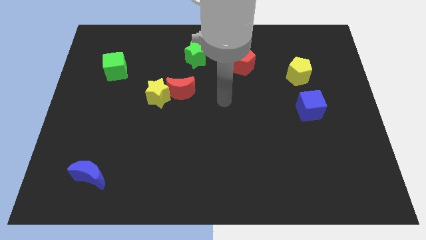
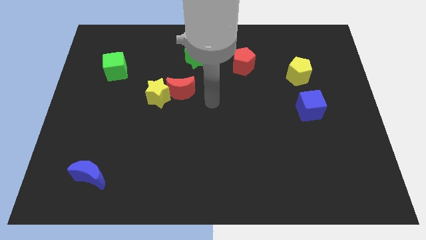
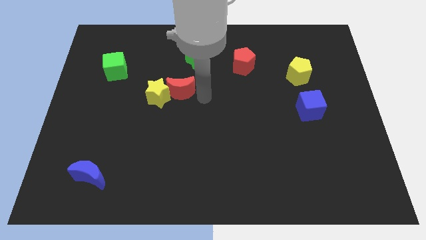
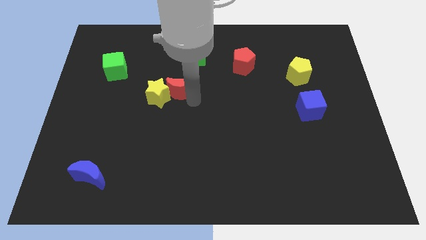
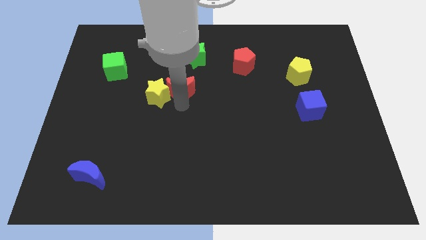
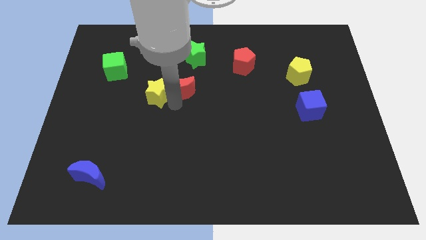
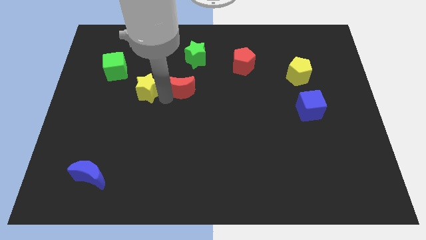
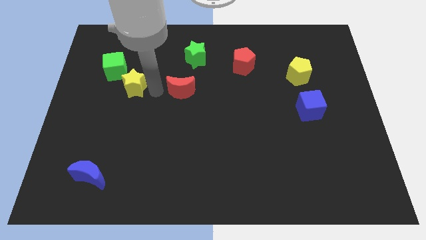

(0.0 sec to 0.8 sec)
move the red moon away from the yellow star

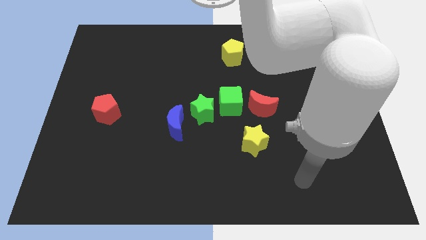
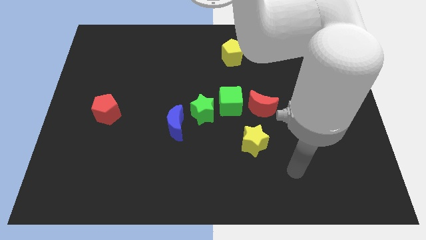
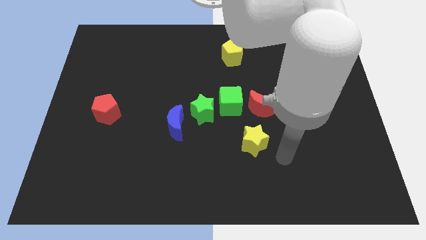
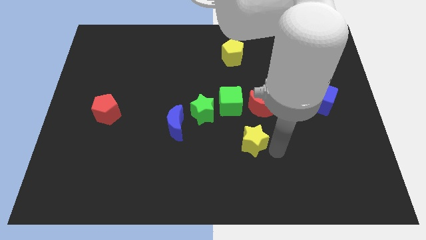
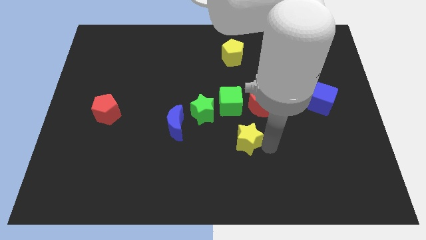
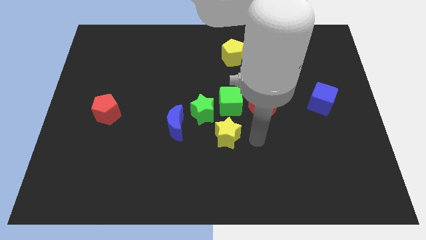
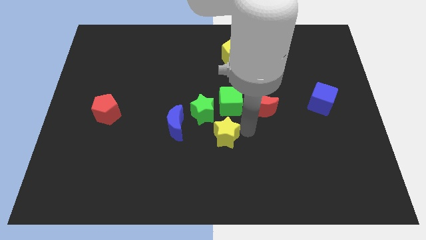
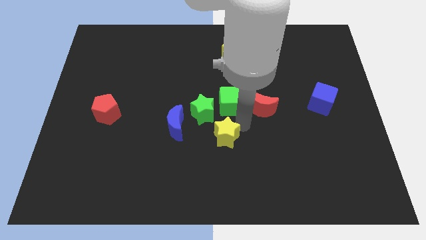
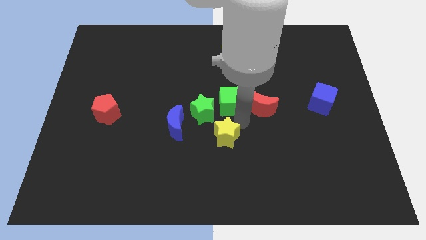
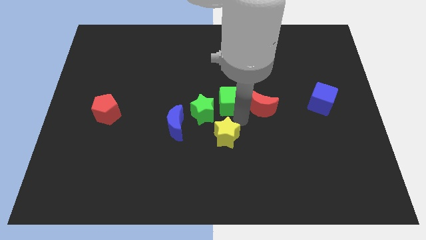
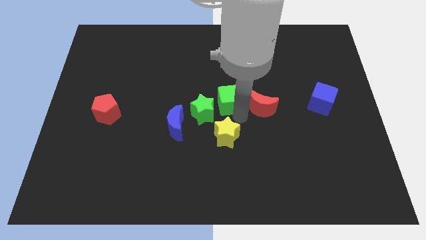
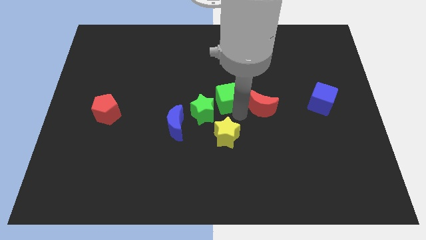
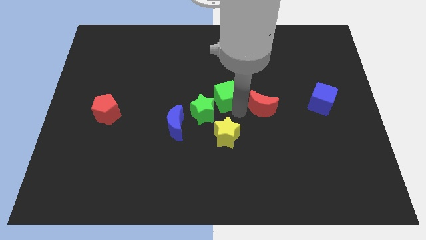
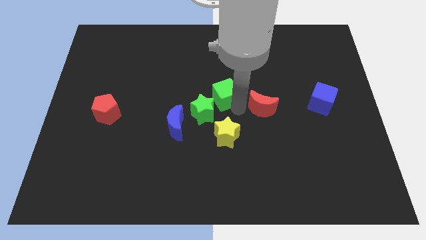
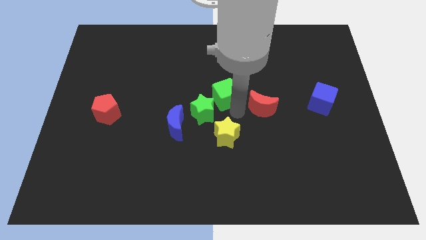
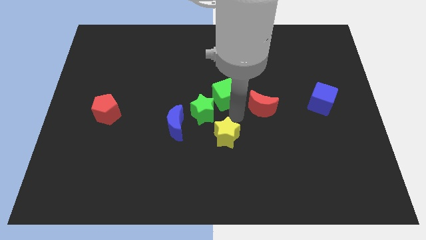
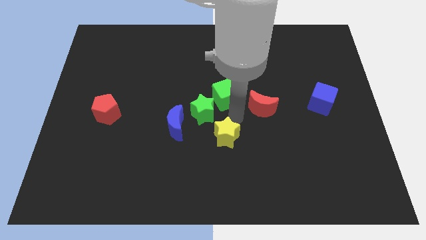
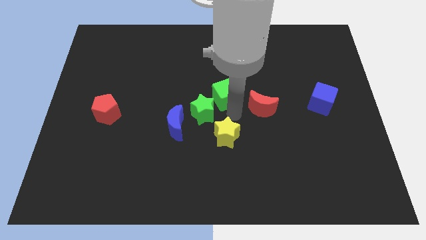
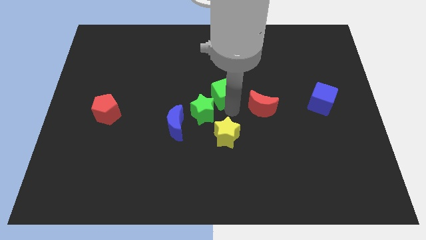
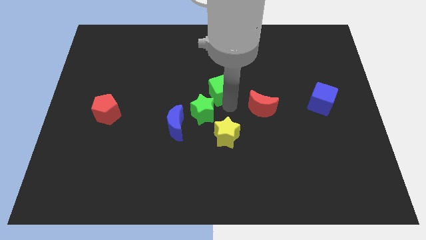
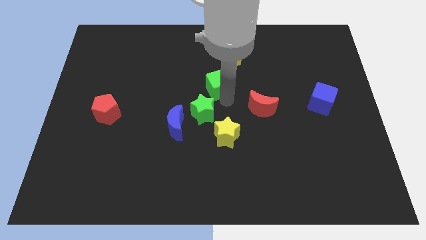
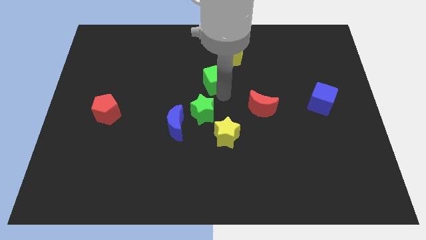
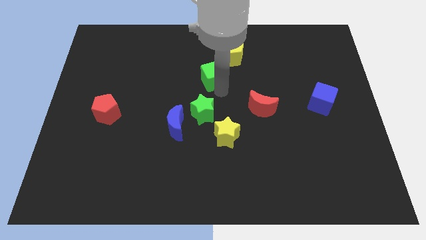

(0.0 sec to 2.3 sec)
separate the green cube from the green star and red moon

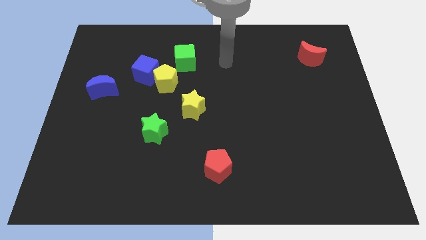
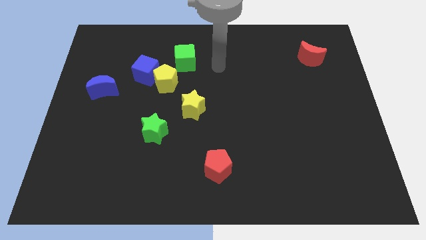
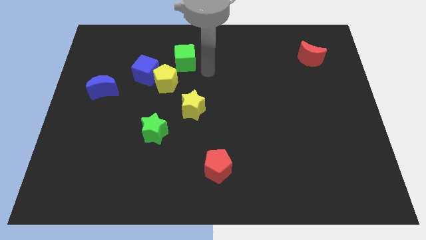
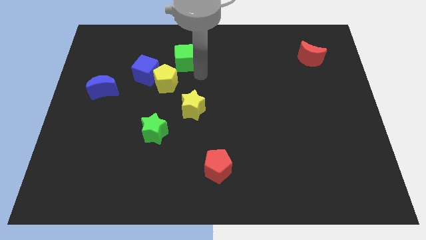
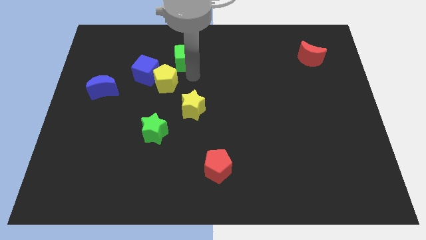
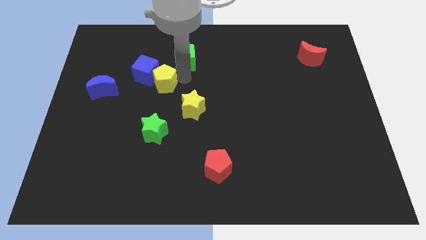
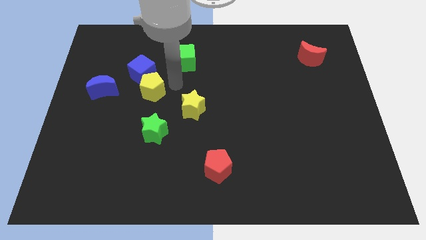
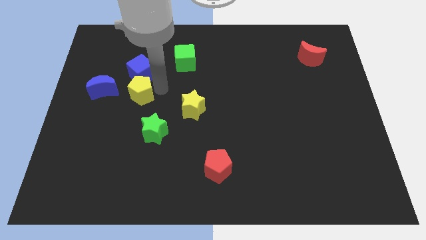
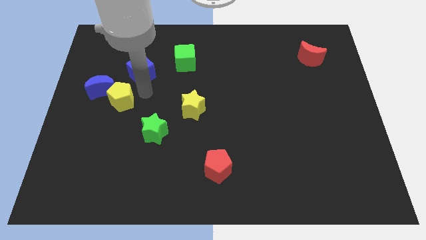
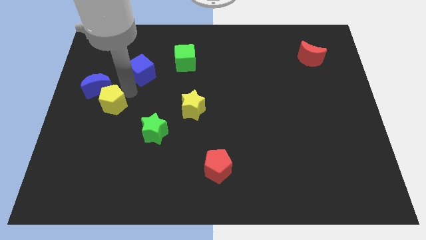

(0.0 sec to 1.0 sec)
move the blue cube away from the yellow pentagon

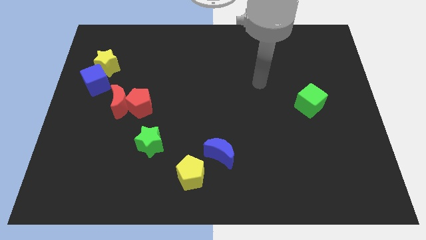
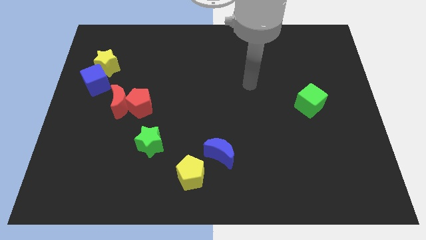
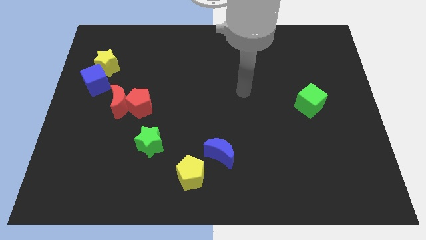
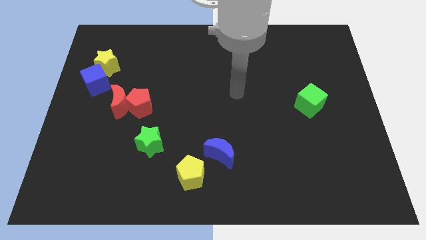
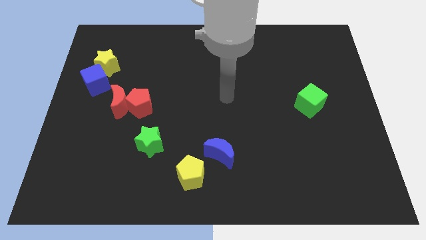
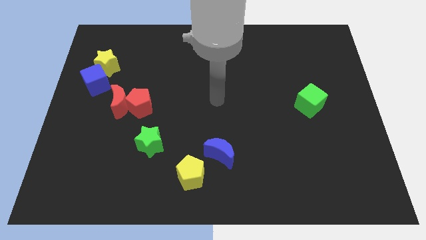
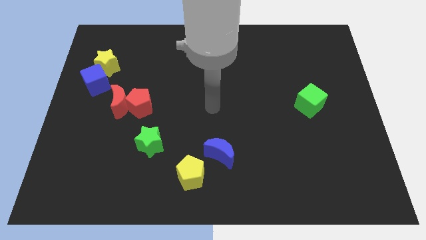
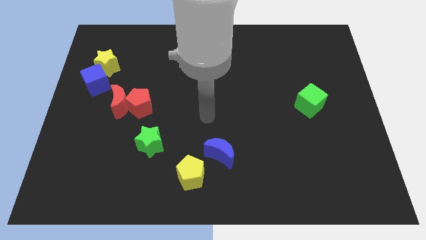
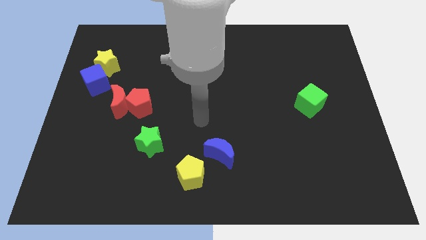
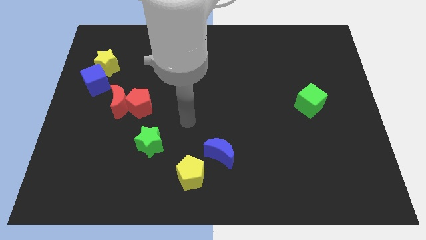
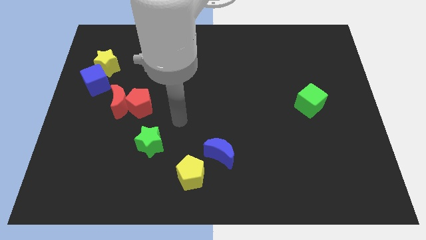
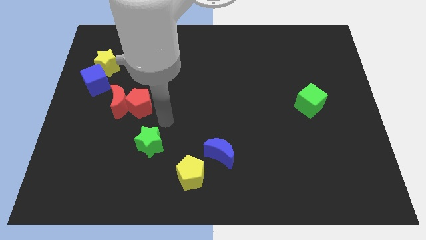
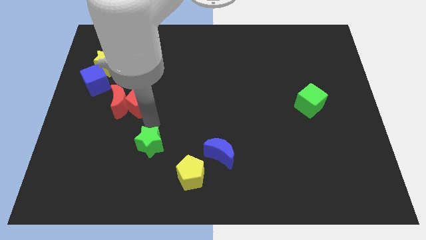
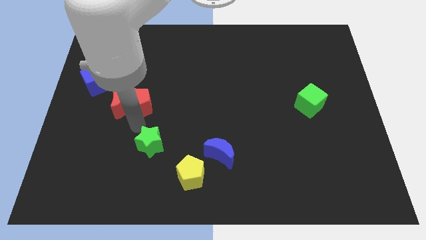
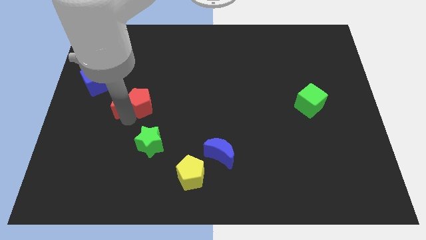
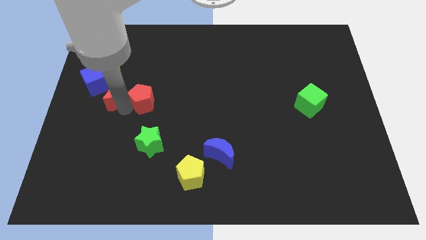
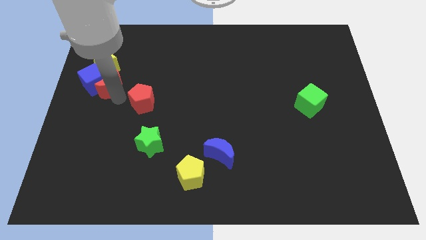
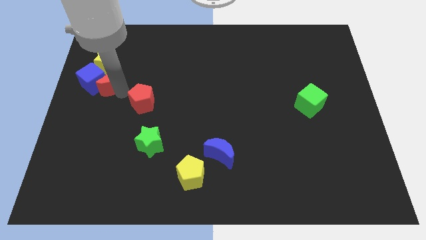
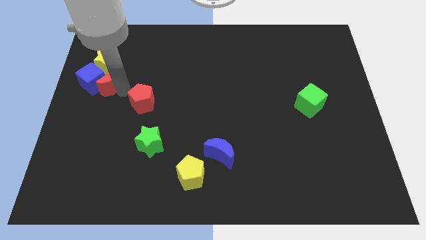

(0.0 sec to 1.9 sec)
pull the red pentagon apart from the red moon

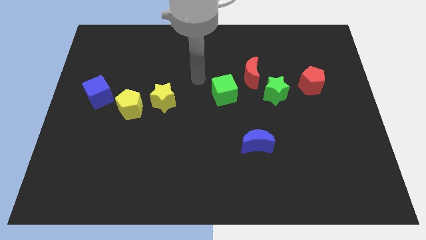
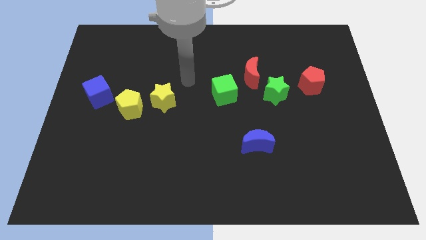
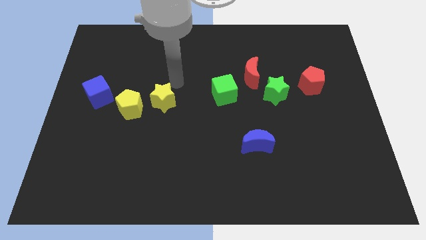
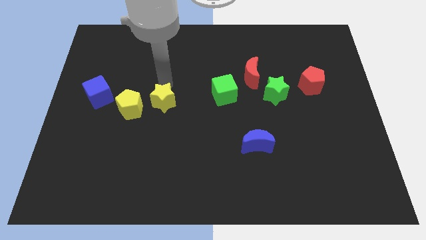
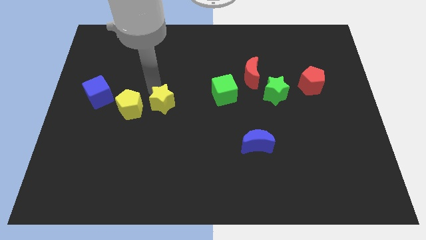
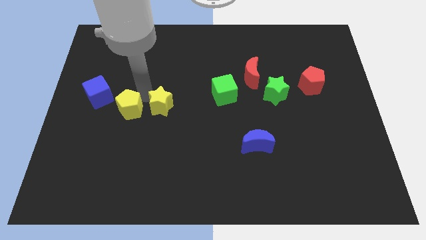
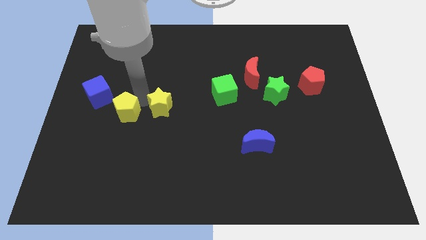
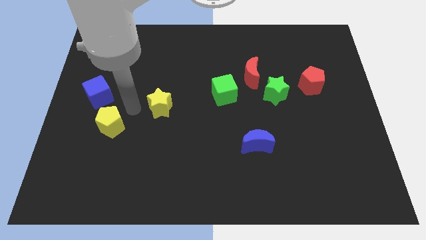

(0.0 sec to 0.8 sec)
pull the yellow star apart from the yellow pentagon

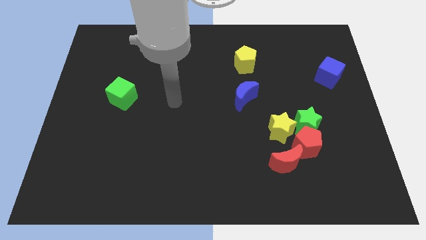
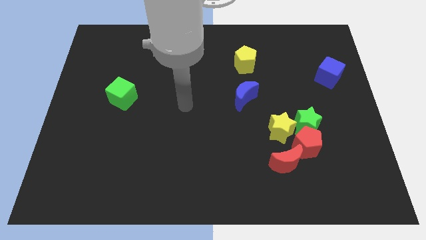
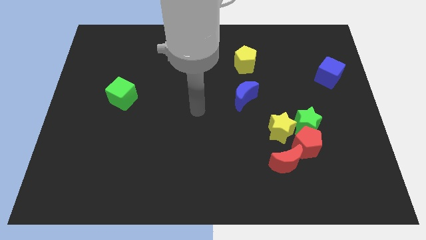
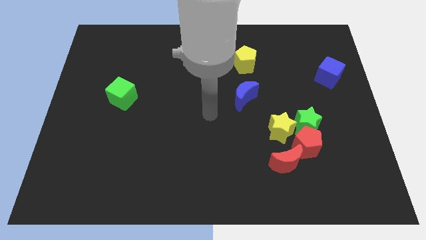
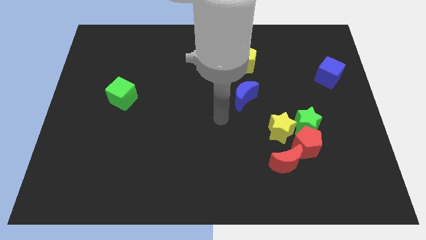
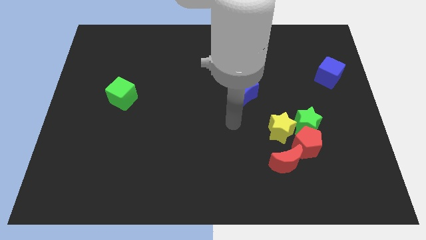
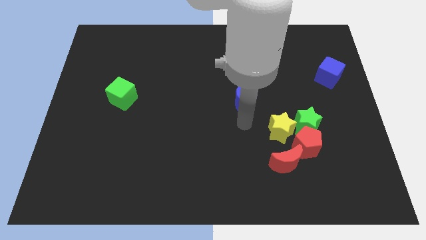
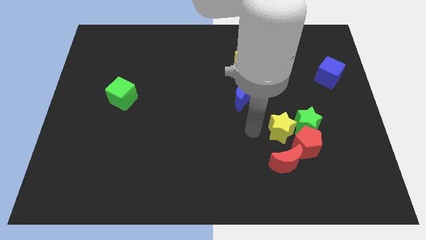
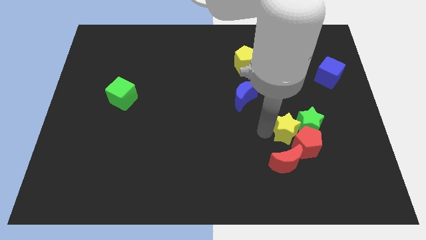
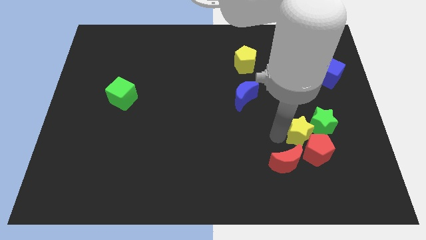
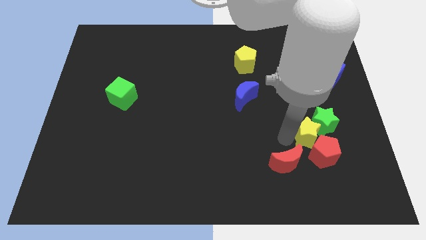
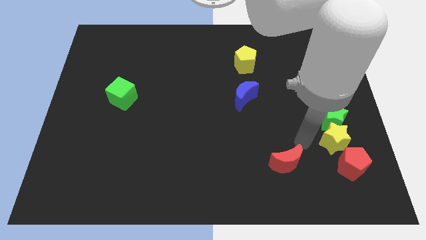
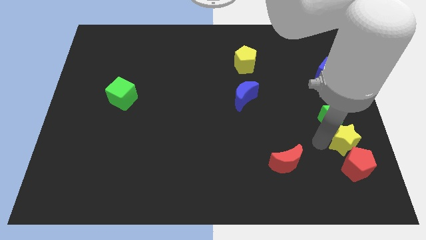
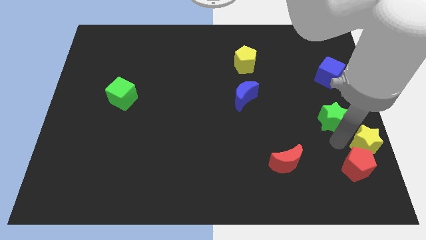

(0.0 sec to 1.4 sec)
pull the green star apart from the red pentagon and yellow star

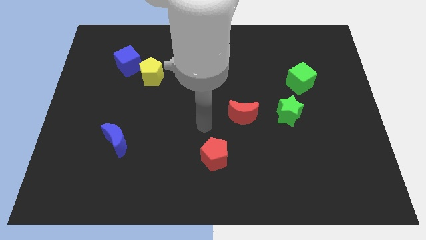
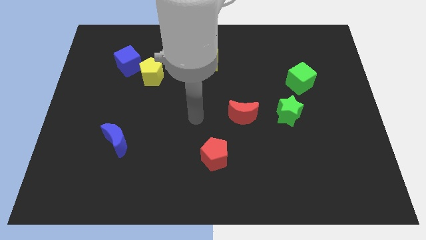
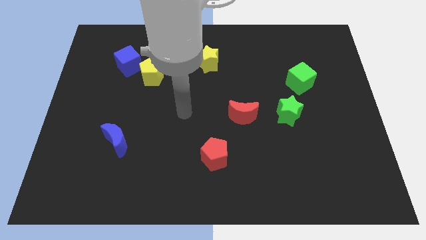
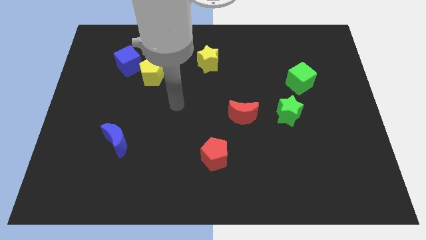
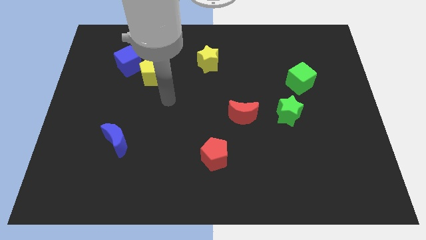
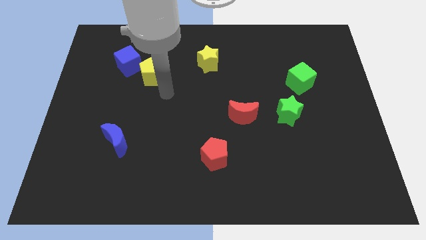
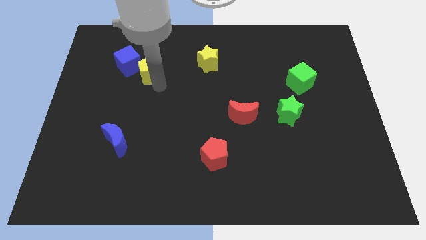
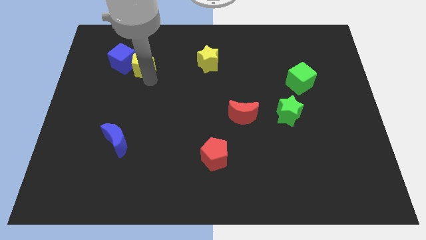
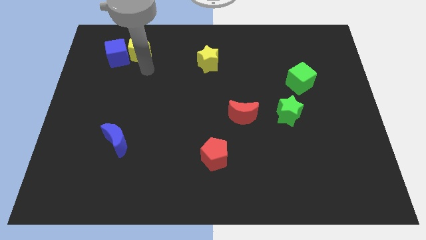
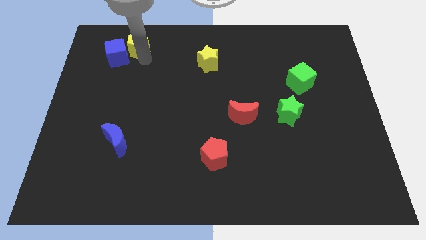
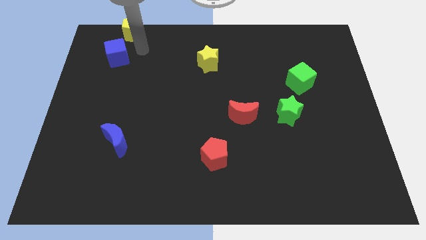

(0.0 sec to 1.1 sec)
separate the blue cube from the yellow pentagon
